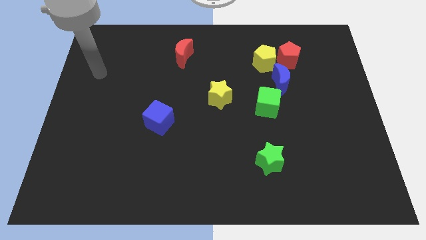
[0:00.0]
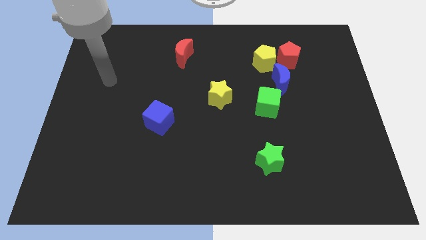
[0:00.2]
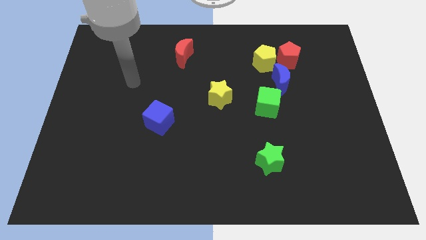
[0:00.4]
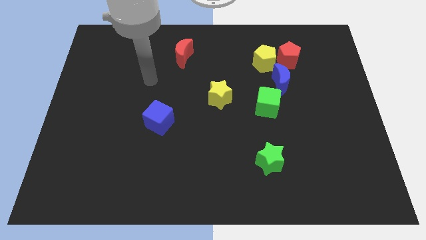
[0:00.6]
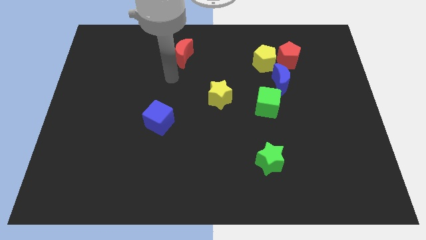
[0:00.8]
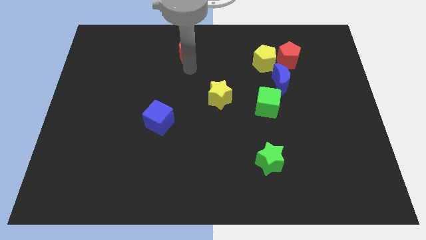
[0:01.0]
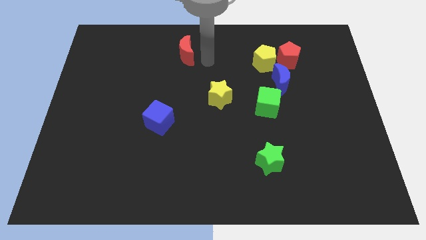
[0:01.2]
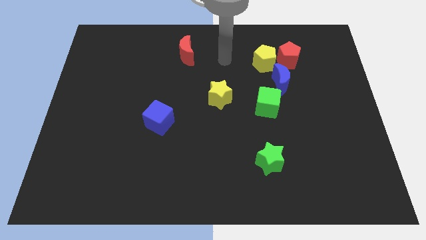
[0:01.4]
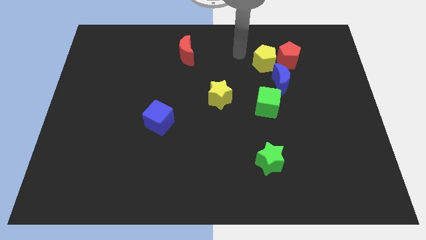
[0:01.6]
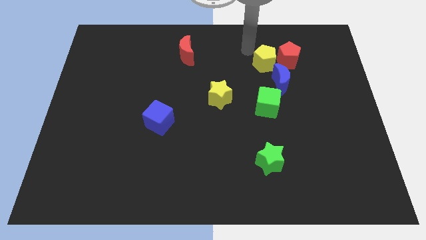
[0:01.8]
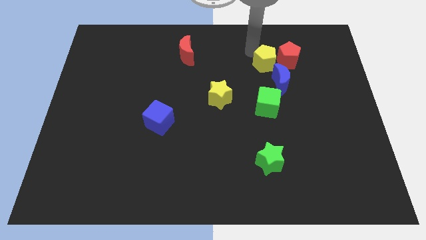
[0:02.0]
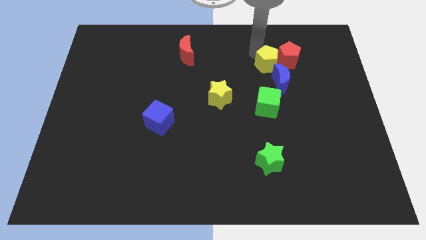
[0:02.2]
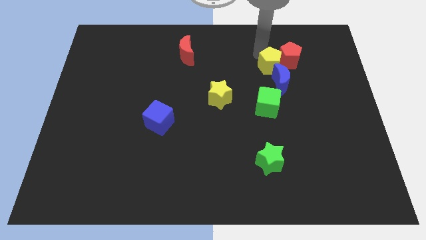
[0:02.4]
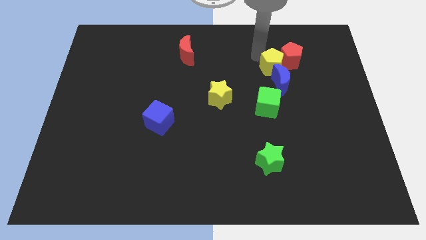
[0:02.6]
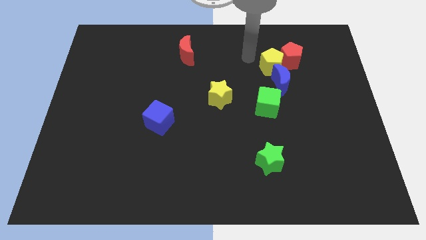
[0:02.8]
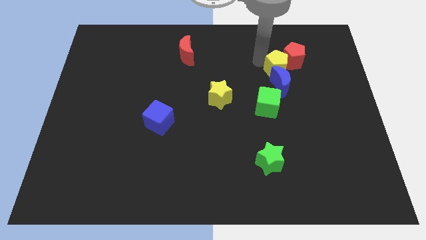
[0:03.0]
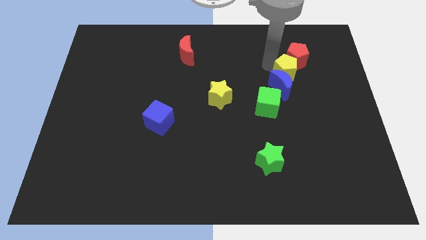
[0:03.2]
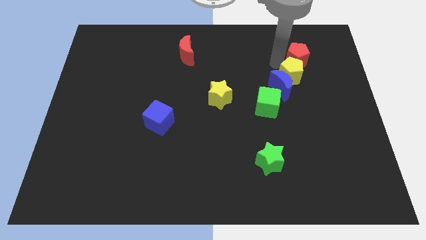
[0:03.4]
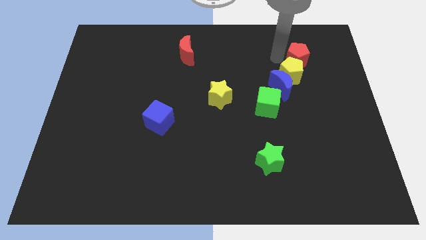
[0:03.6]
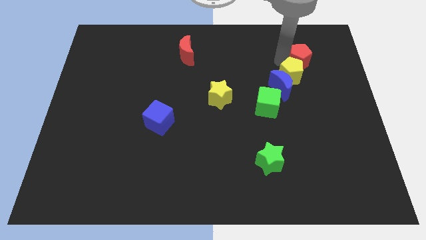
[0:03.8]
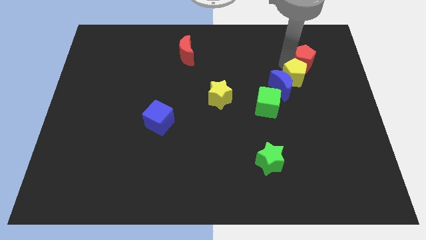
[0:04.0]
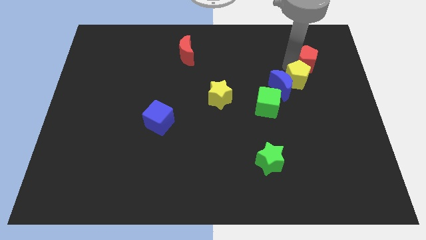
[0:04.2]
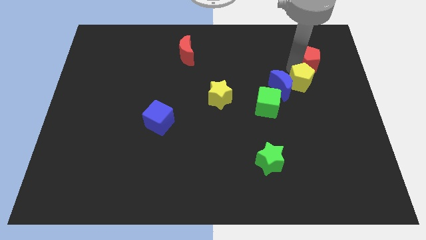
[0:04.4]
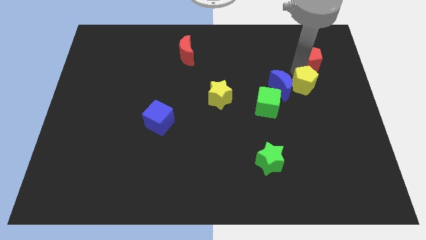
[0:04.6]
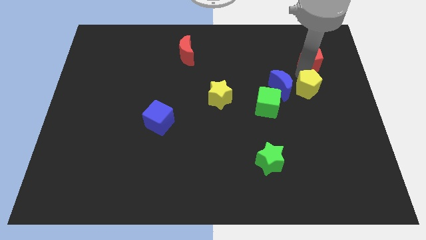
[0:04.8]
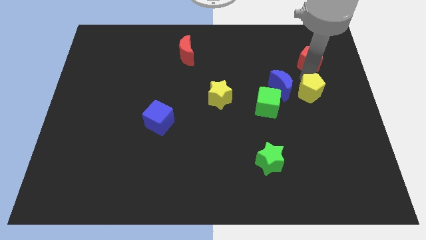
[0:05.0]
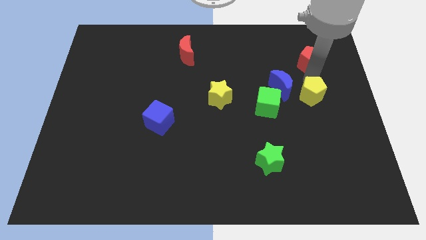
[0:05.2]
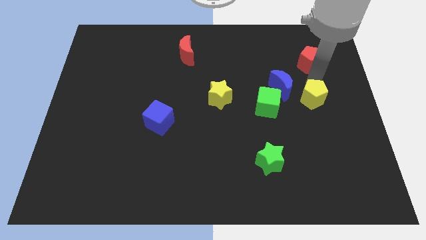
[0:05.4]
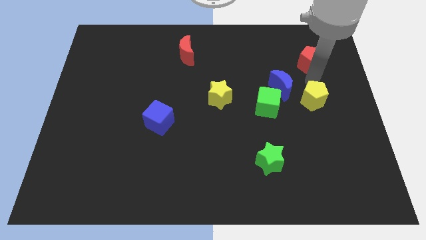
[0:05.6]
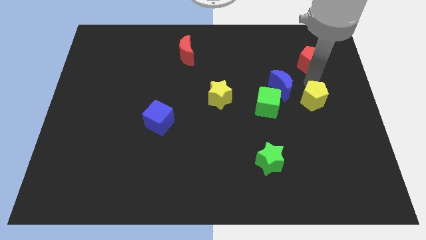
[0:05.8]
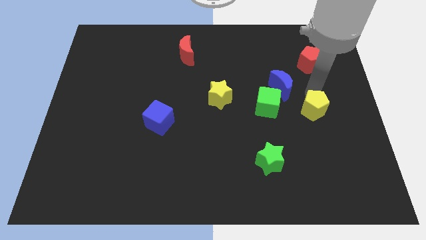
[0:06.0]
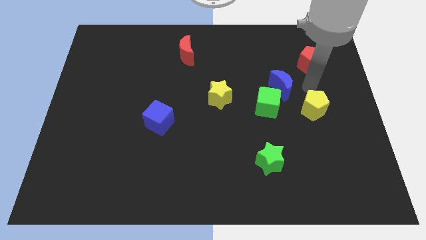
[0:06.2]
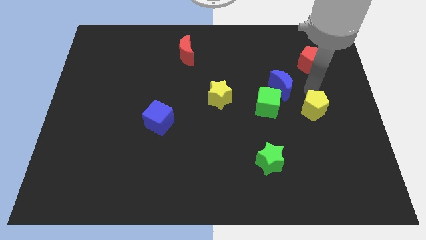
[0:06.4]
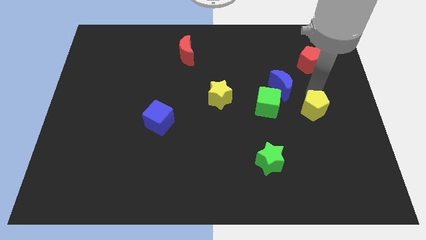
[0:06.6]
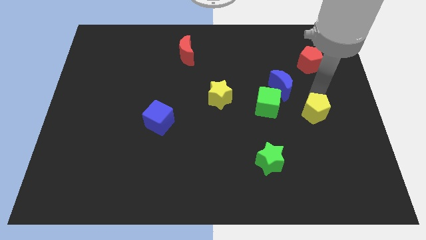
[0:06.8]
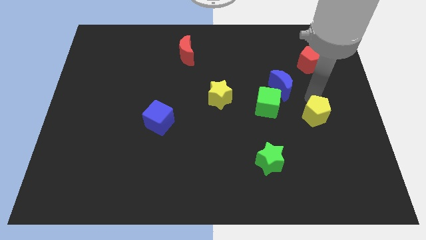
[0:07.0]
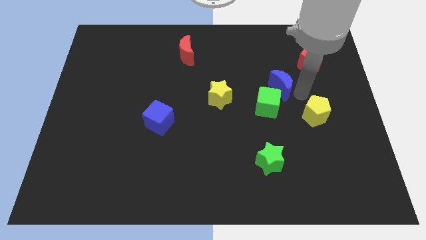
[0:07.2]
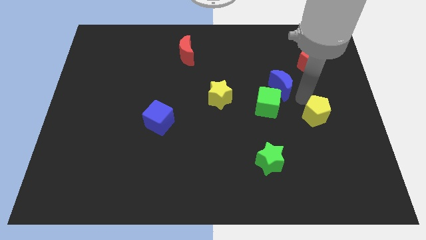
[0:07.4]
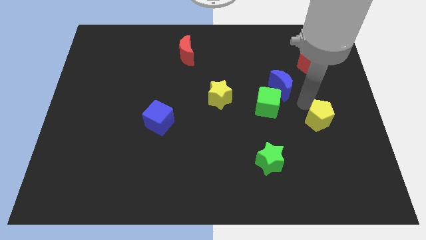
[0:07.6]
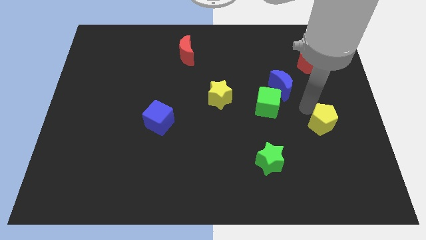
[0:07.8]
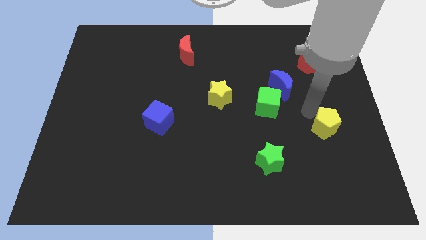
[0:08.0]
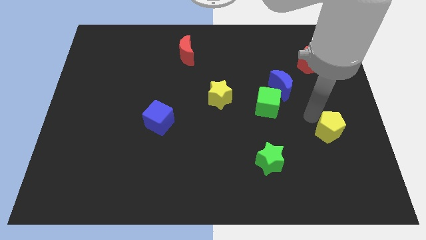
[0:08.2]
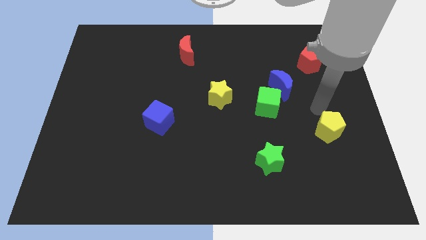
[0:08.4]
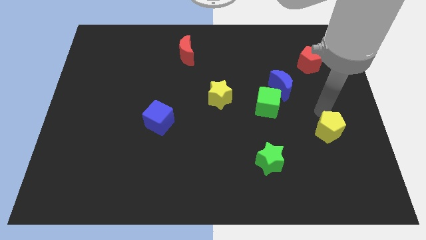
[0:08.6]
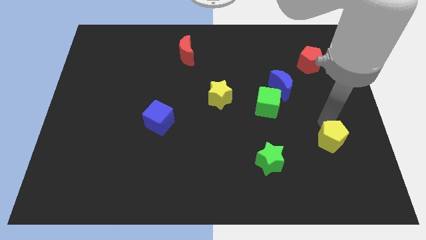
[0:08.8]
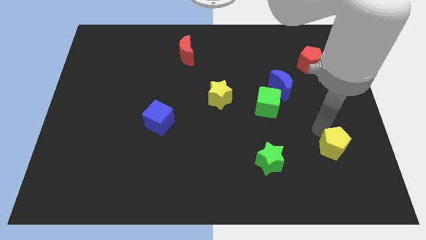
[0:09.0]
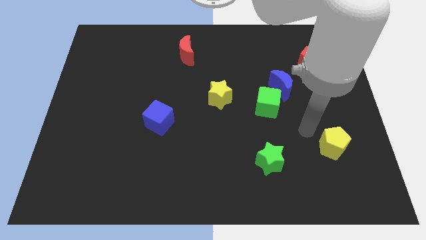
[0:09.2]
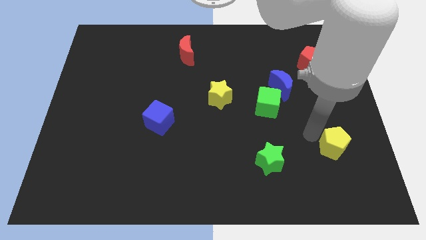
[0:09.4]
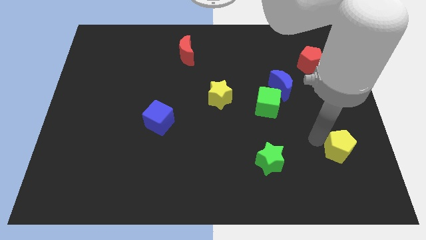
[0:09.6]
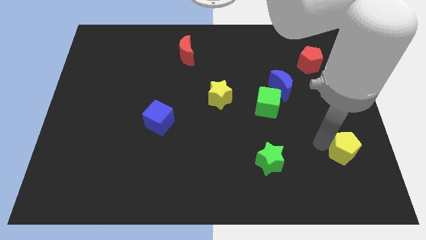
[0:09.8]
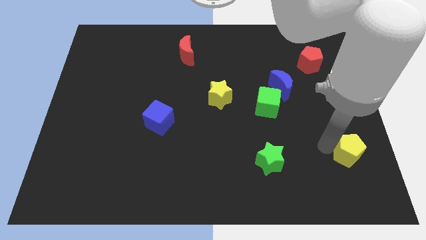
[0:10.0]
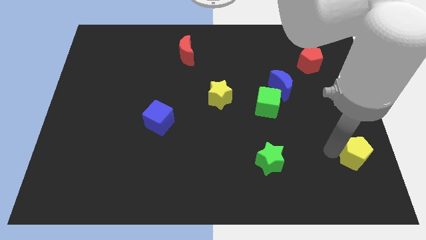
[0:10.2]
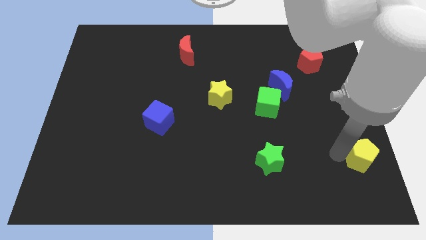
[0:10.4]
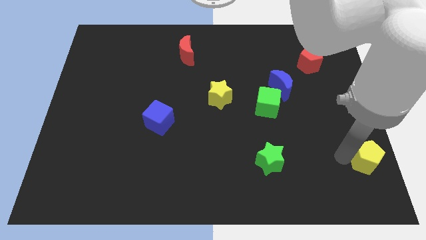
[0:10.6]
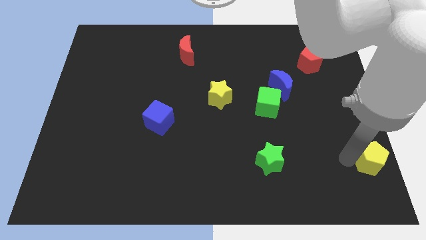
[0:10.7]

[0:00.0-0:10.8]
put the yellow pentagon to the bottom right corner
